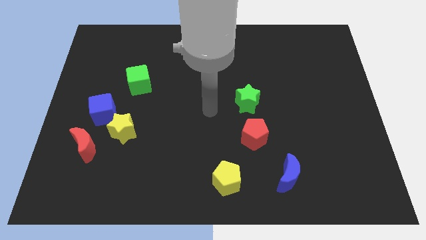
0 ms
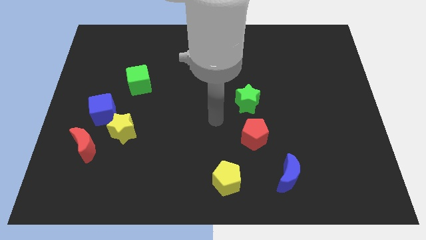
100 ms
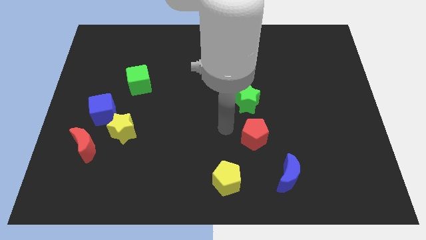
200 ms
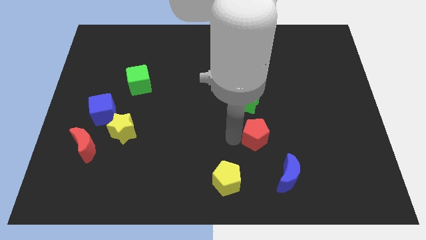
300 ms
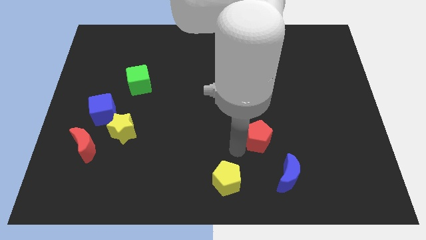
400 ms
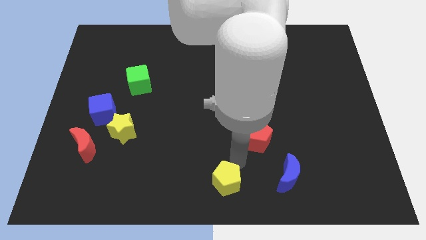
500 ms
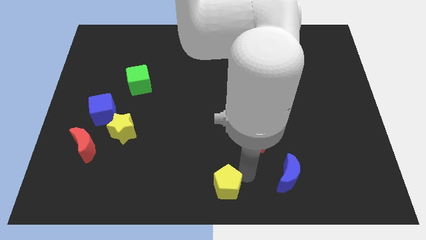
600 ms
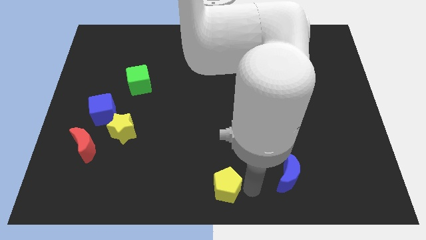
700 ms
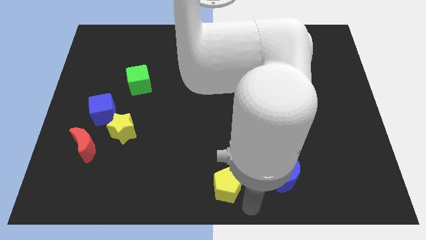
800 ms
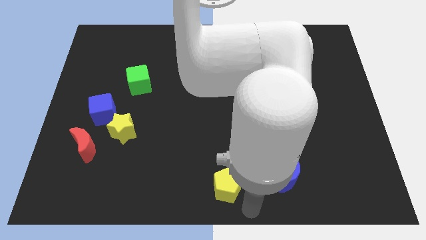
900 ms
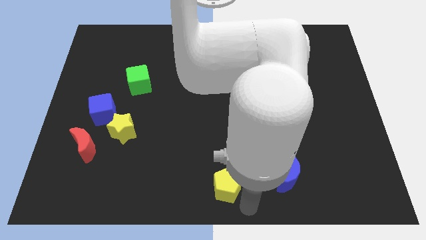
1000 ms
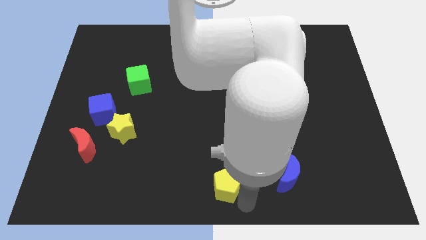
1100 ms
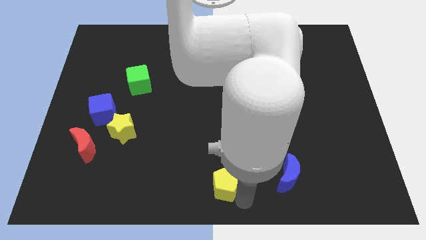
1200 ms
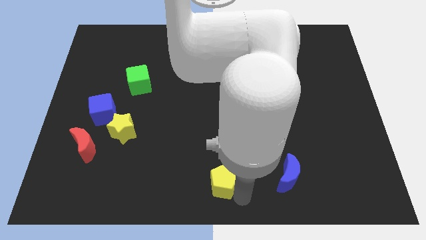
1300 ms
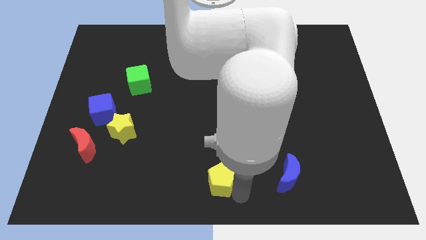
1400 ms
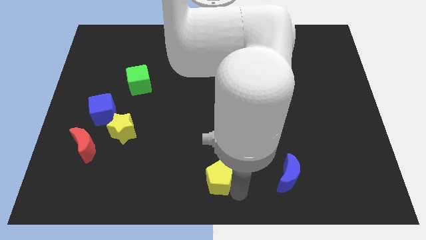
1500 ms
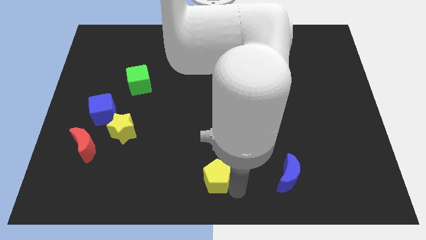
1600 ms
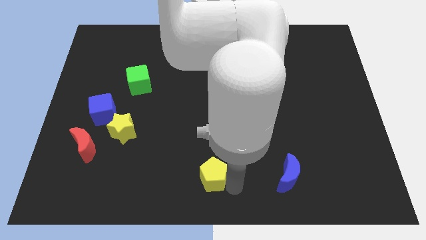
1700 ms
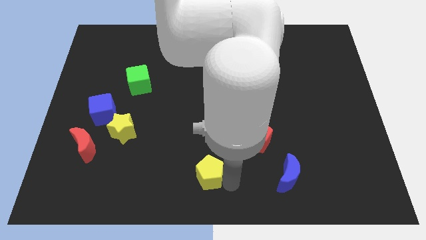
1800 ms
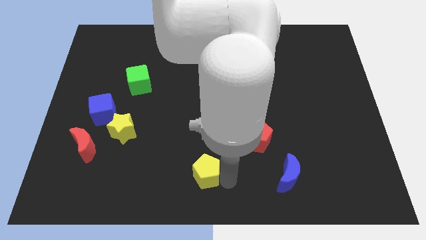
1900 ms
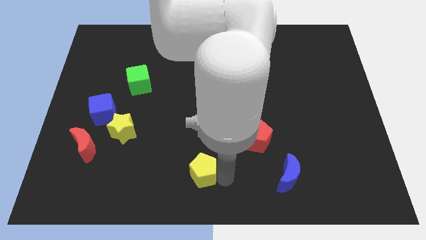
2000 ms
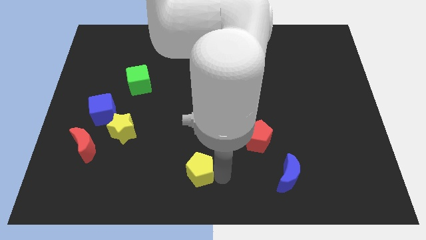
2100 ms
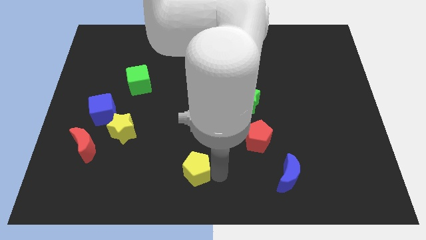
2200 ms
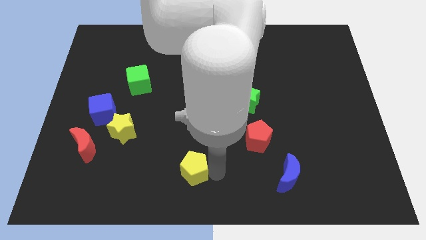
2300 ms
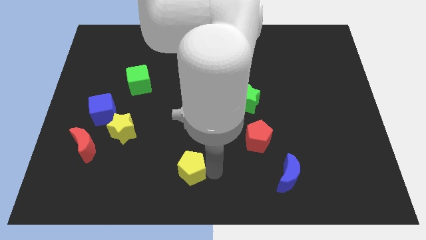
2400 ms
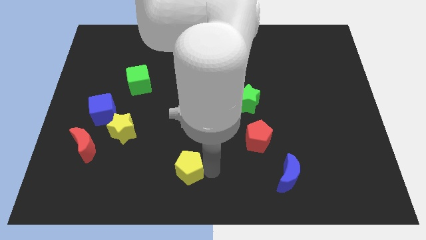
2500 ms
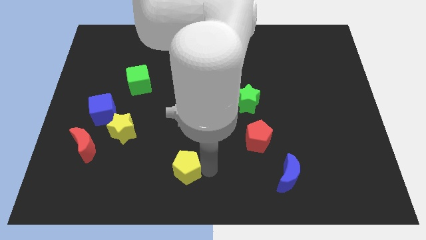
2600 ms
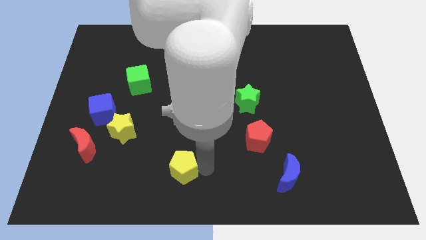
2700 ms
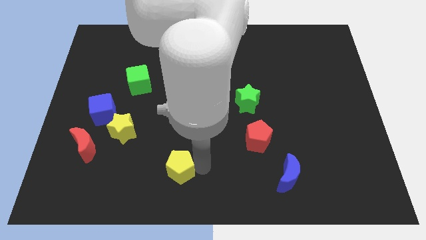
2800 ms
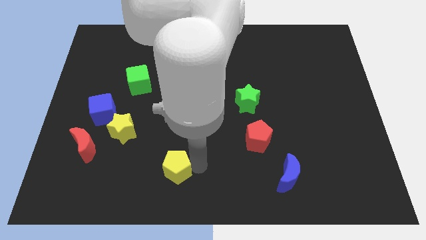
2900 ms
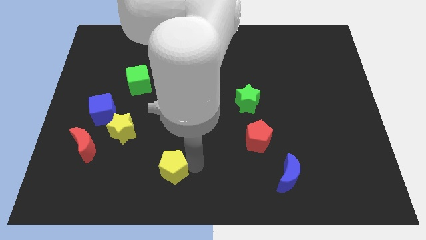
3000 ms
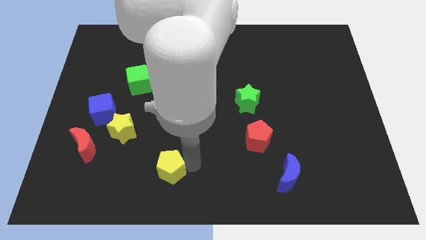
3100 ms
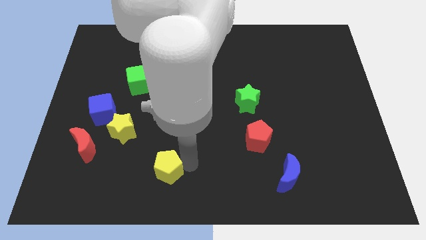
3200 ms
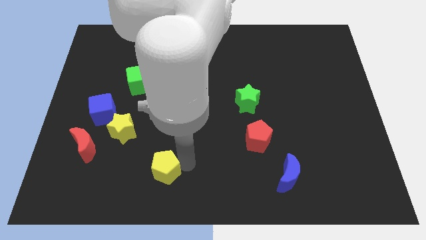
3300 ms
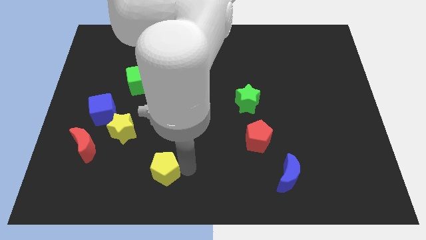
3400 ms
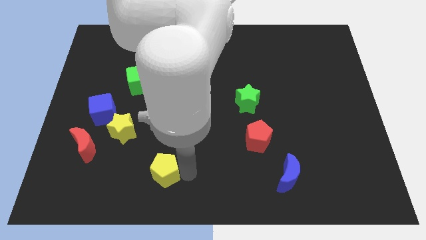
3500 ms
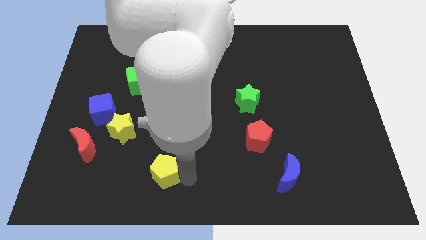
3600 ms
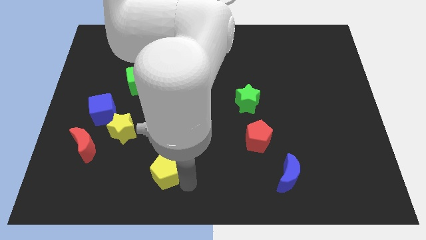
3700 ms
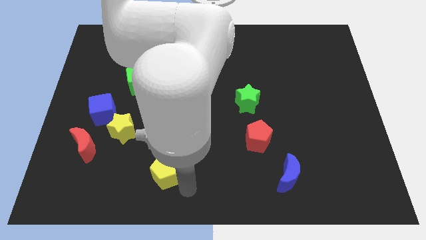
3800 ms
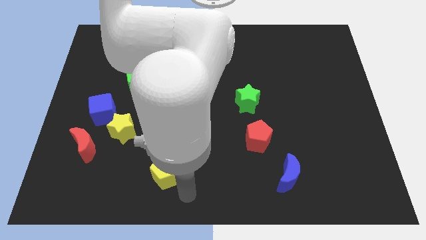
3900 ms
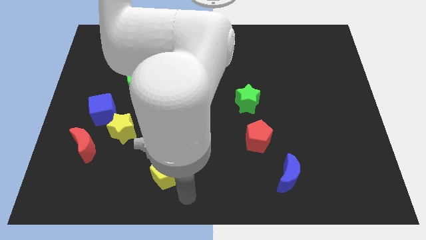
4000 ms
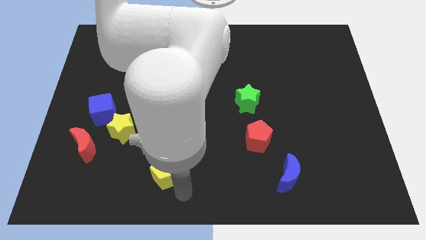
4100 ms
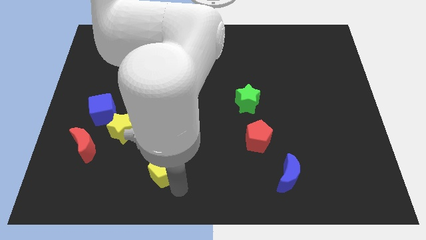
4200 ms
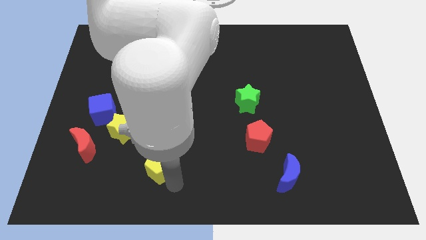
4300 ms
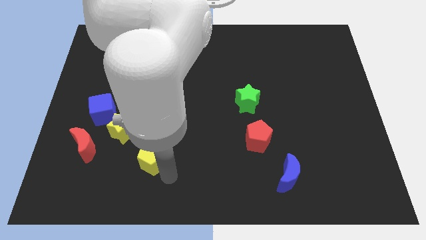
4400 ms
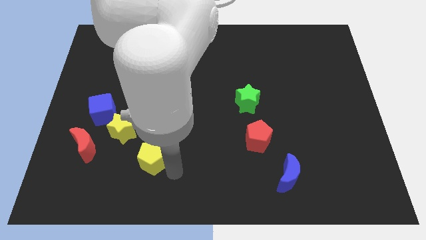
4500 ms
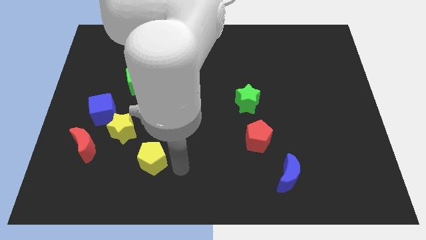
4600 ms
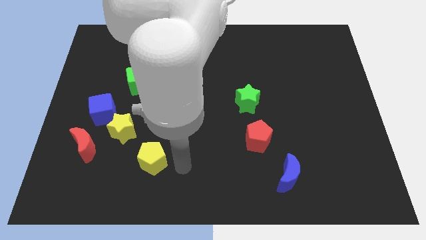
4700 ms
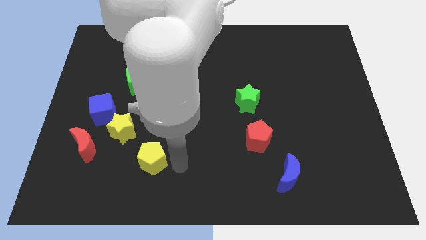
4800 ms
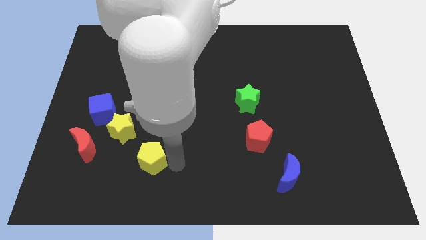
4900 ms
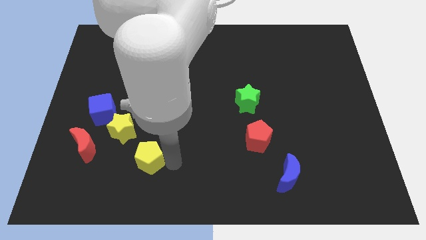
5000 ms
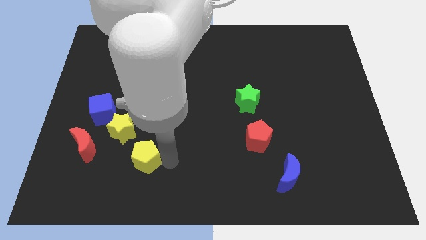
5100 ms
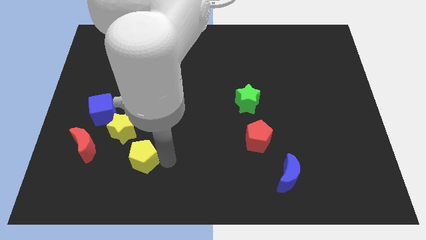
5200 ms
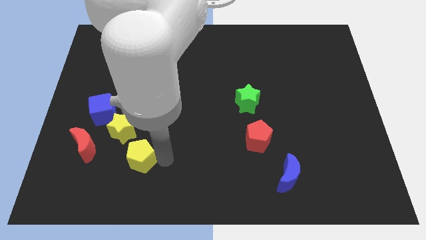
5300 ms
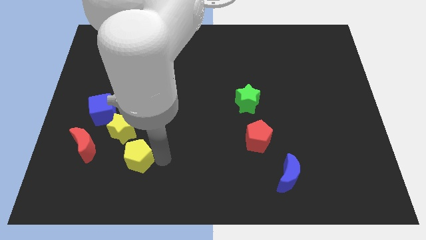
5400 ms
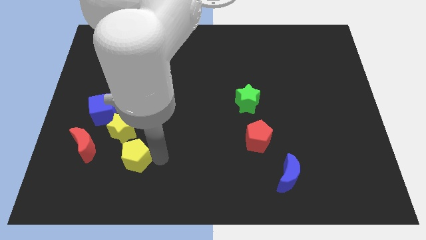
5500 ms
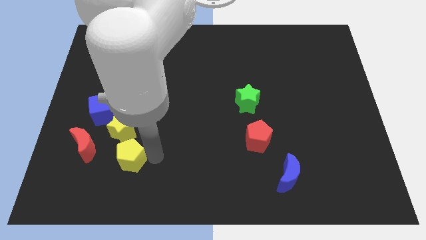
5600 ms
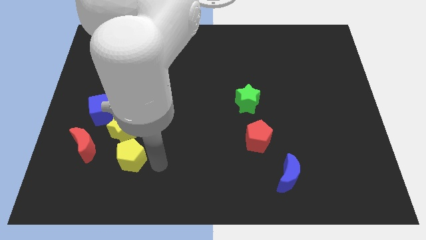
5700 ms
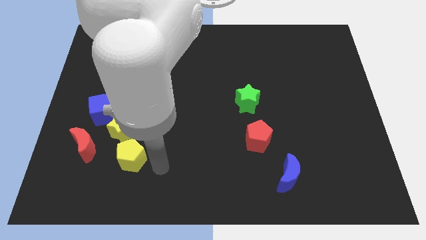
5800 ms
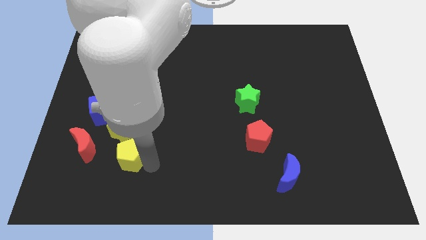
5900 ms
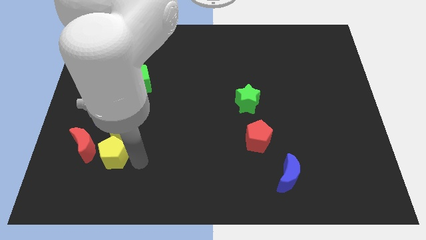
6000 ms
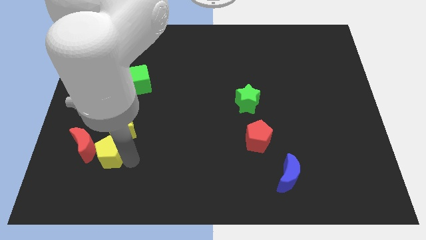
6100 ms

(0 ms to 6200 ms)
push the yellow pentagon next to the red moon

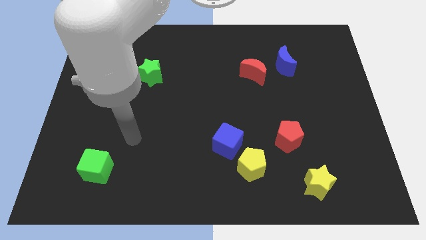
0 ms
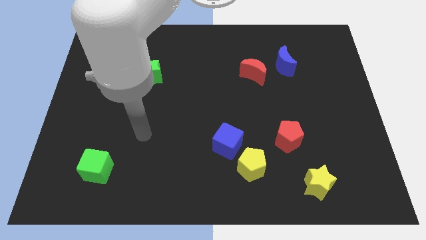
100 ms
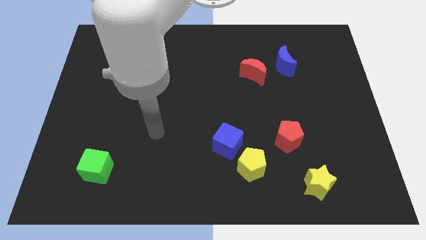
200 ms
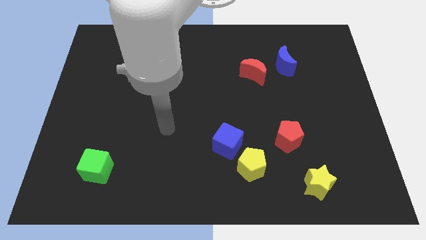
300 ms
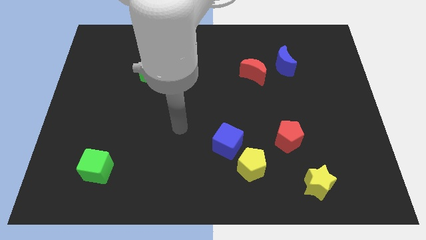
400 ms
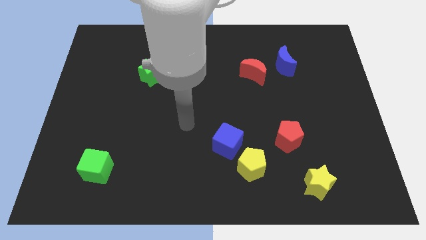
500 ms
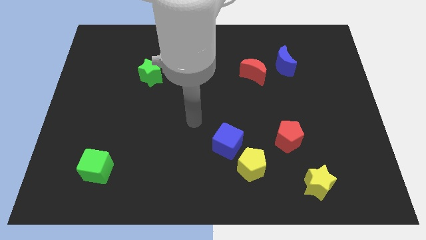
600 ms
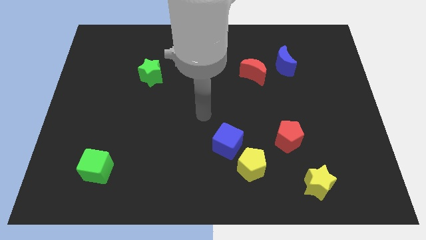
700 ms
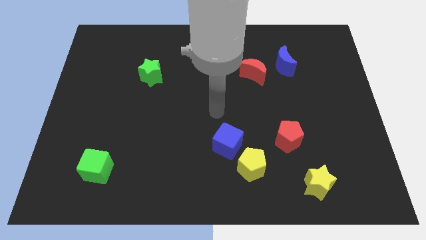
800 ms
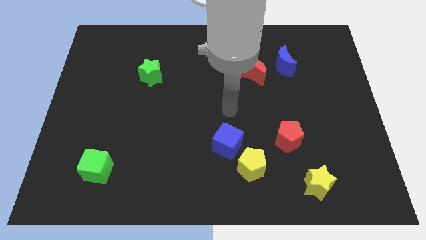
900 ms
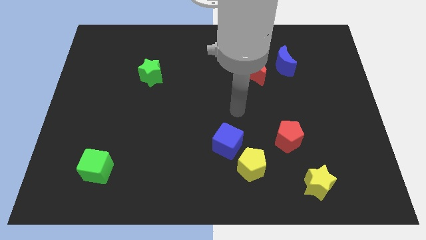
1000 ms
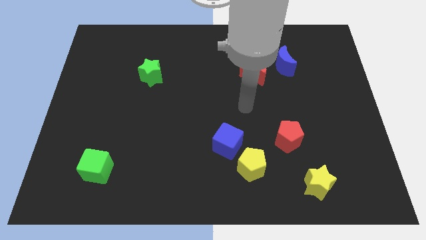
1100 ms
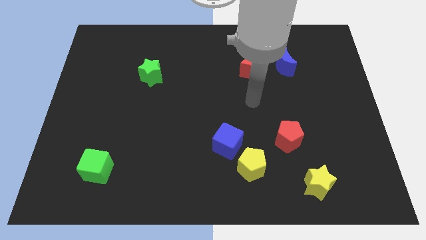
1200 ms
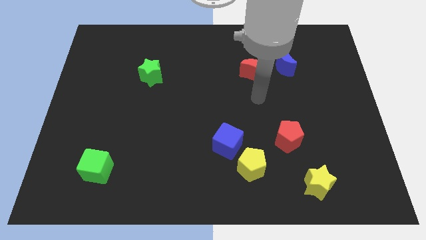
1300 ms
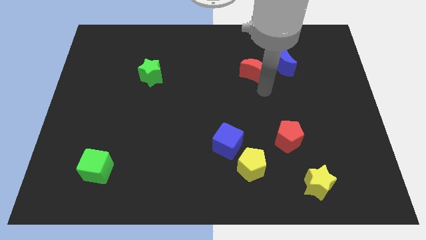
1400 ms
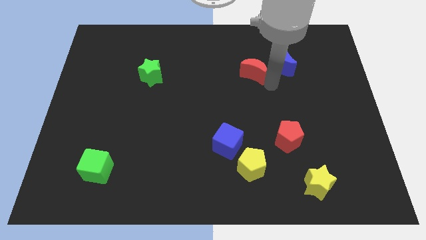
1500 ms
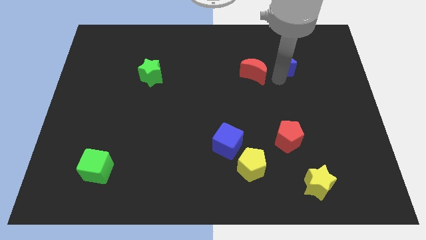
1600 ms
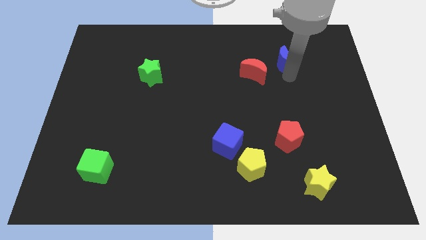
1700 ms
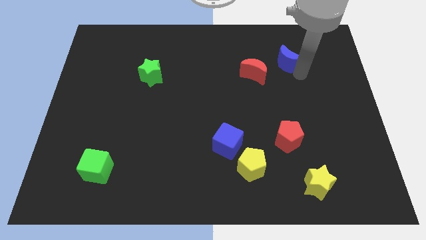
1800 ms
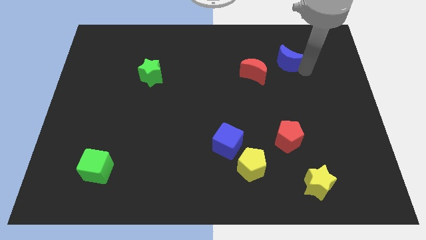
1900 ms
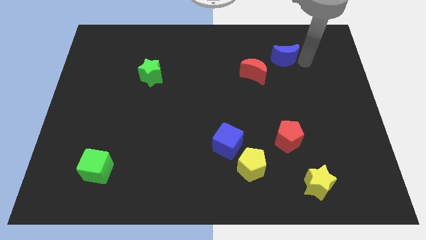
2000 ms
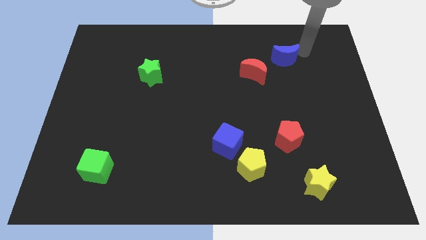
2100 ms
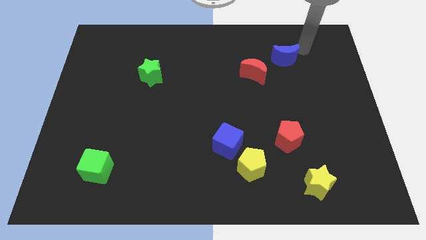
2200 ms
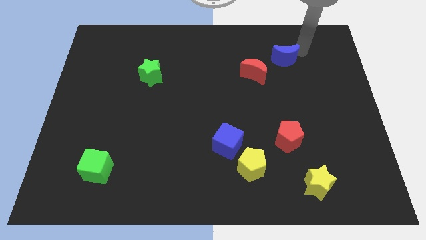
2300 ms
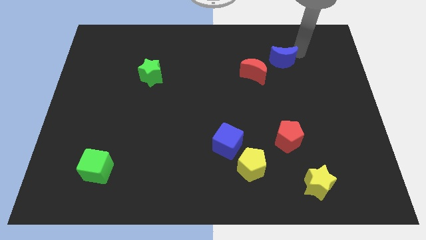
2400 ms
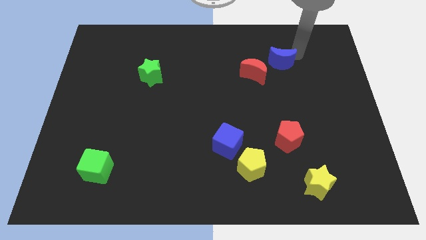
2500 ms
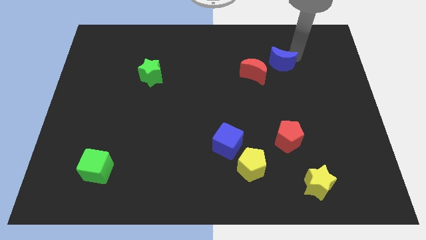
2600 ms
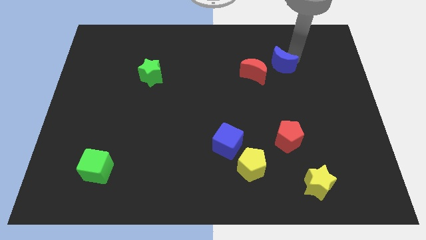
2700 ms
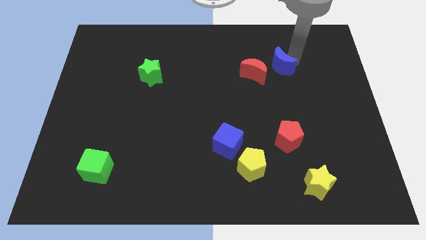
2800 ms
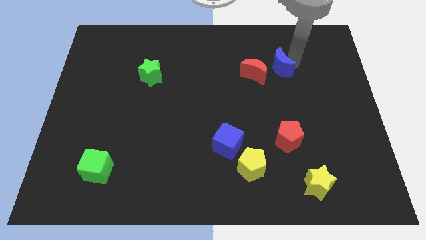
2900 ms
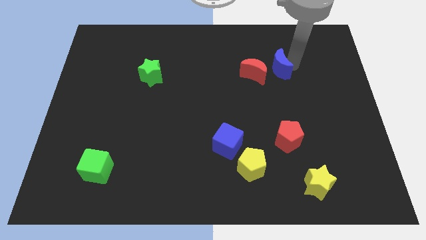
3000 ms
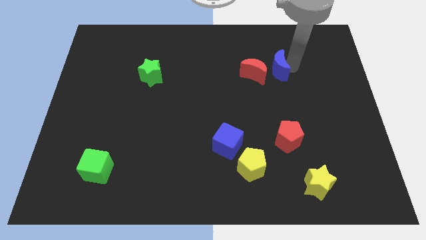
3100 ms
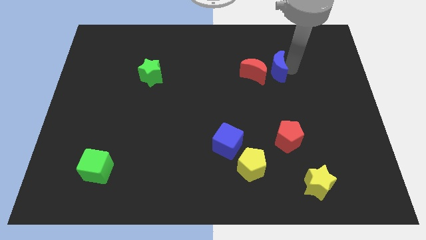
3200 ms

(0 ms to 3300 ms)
push the blue moon towards the red moon
